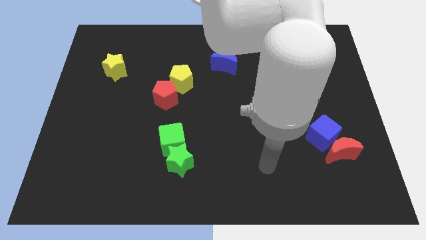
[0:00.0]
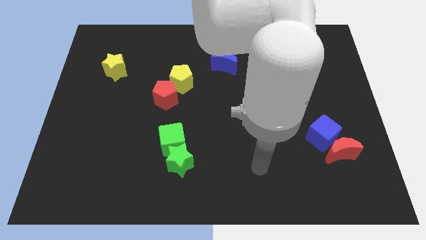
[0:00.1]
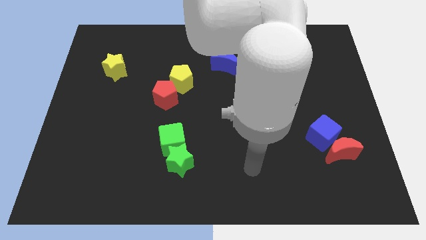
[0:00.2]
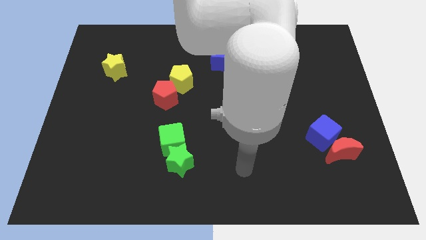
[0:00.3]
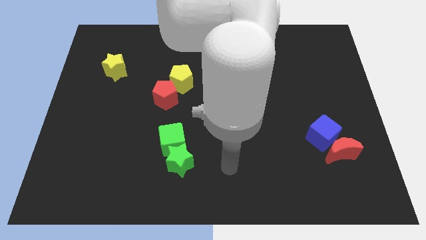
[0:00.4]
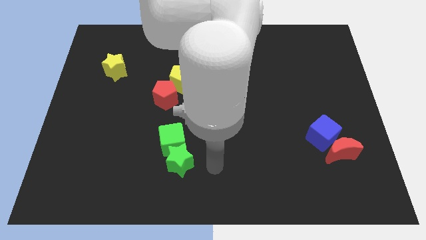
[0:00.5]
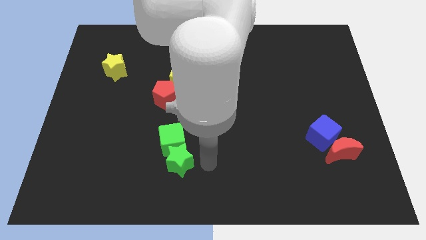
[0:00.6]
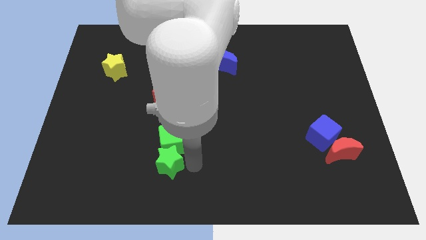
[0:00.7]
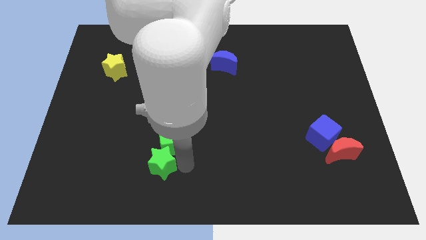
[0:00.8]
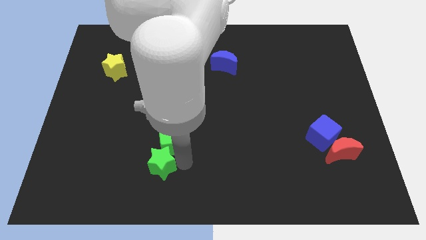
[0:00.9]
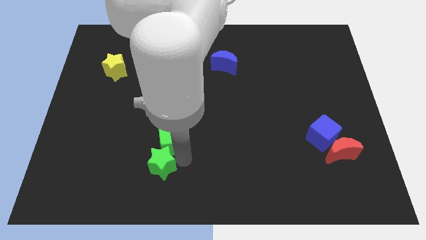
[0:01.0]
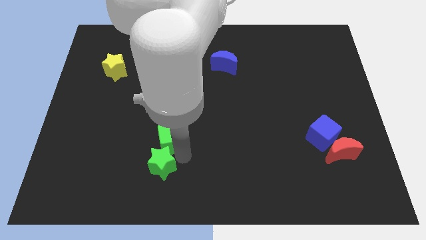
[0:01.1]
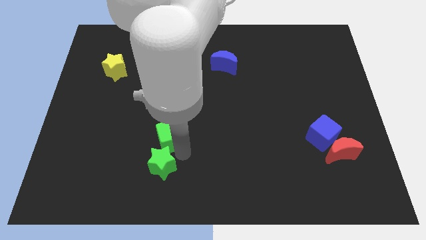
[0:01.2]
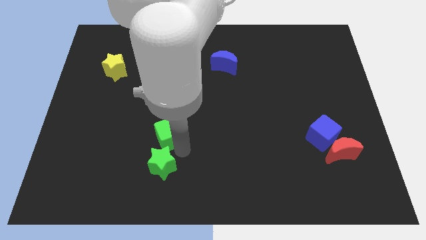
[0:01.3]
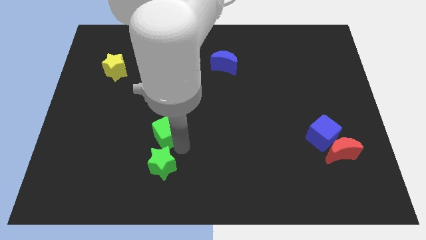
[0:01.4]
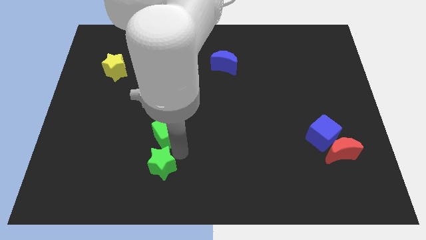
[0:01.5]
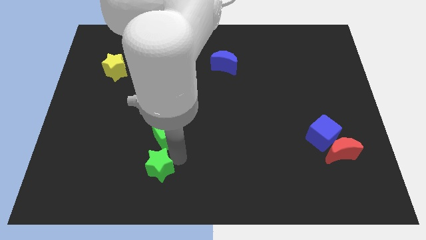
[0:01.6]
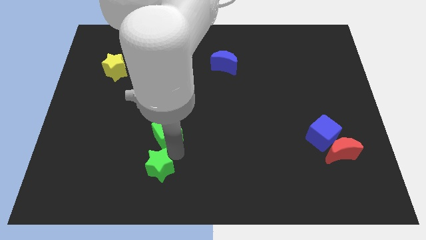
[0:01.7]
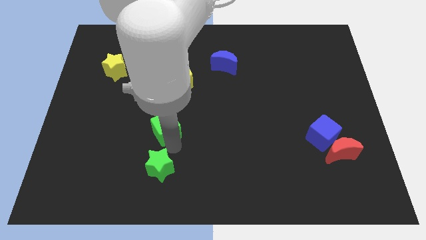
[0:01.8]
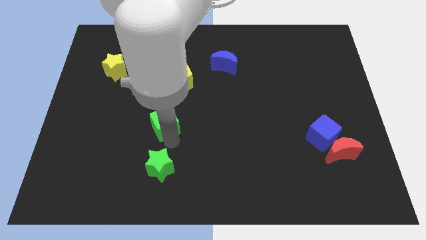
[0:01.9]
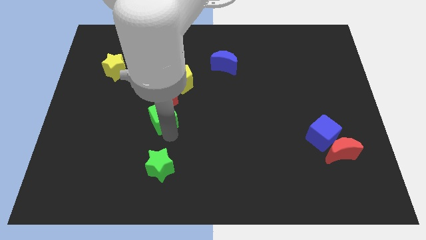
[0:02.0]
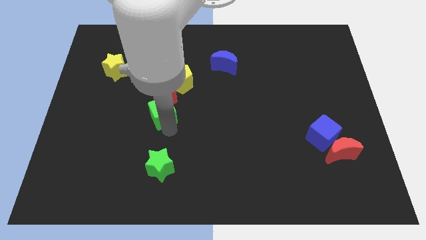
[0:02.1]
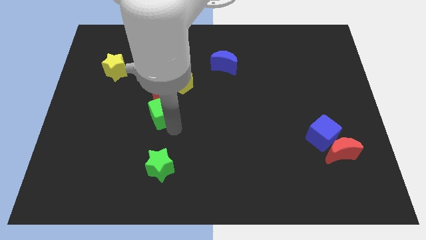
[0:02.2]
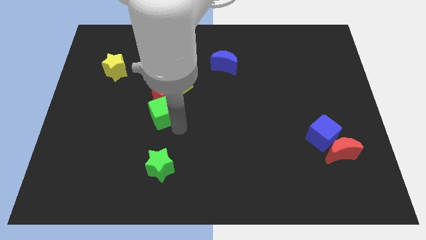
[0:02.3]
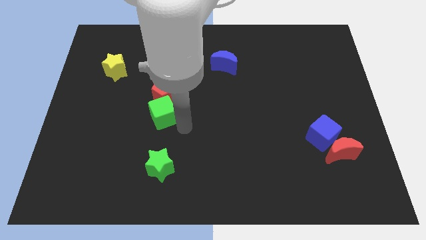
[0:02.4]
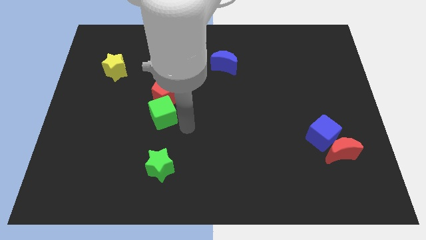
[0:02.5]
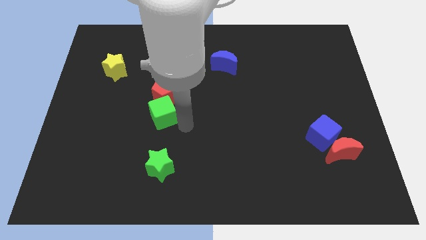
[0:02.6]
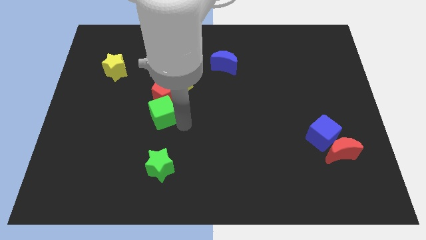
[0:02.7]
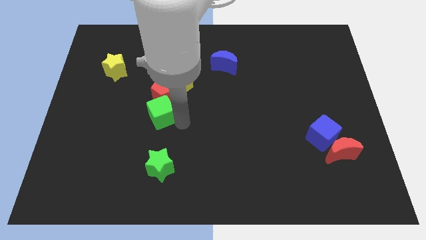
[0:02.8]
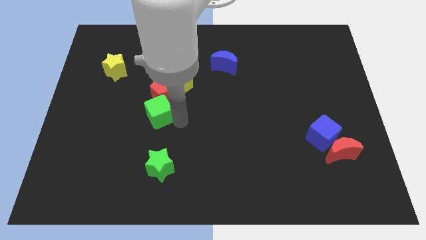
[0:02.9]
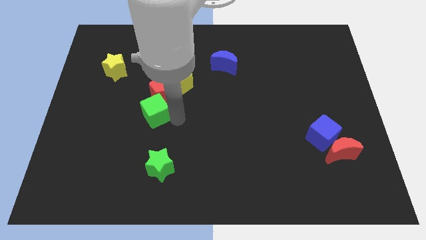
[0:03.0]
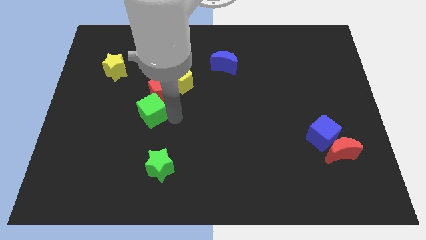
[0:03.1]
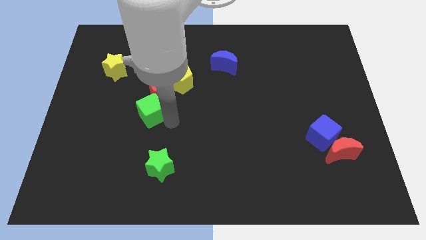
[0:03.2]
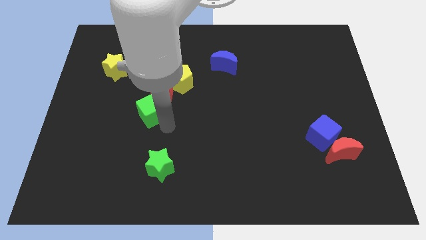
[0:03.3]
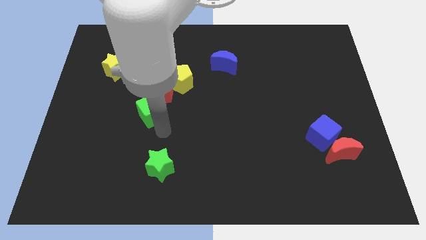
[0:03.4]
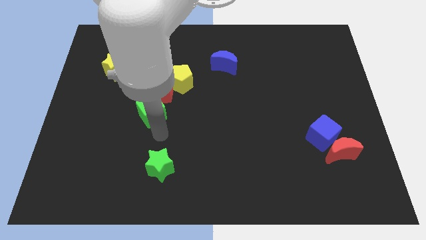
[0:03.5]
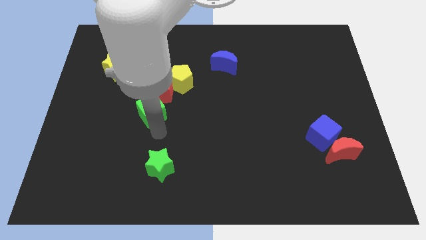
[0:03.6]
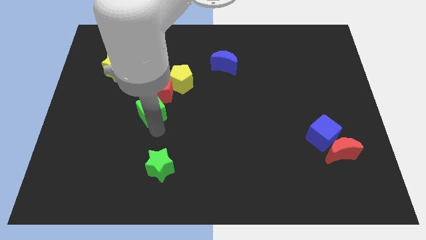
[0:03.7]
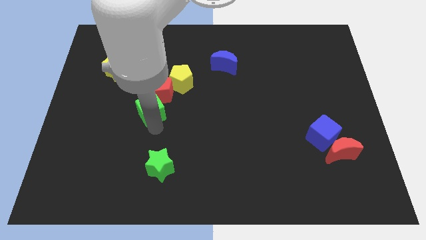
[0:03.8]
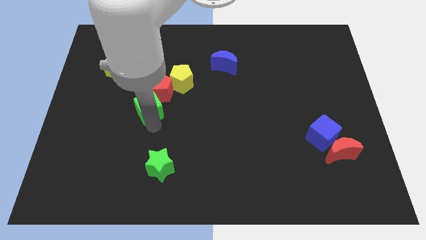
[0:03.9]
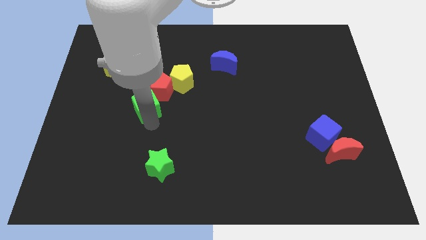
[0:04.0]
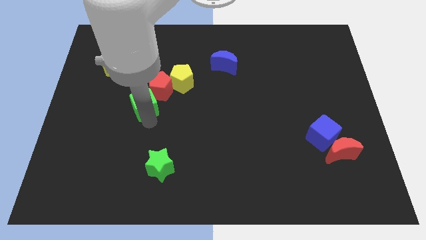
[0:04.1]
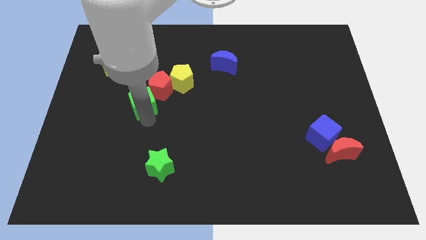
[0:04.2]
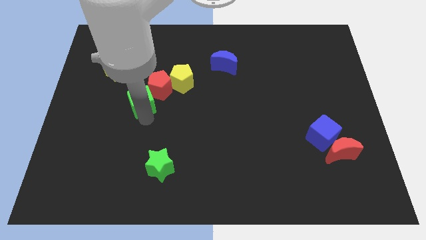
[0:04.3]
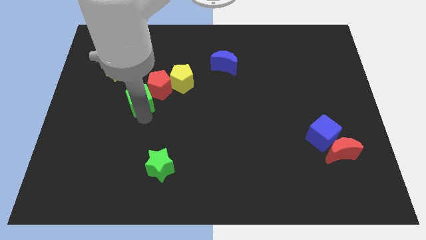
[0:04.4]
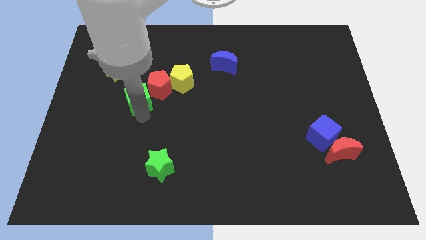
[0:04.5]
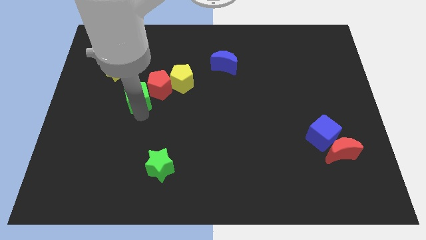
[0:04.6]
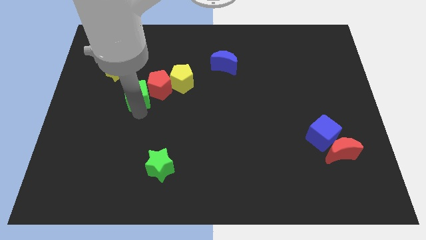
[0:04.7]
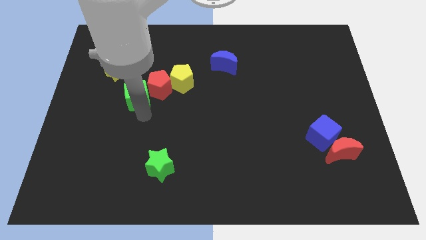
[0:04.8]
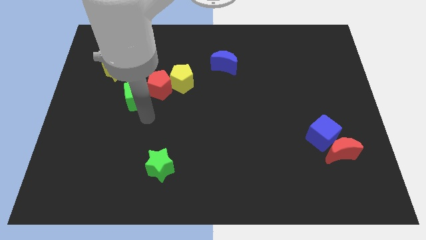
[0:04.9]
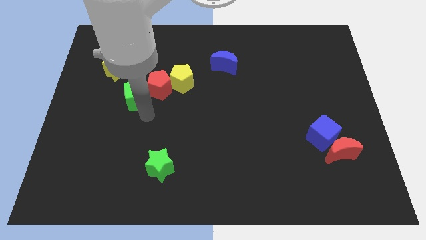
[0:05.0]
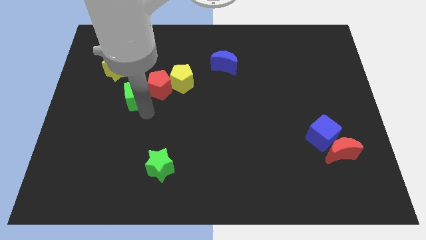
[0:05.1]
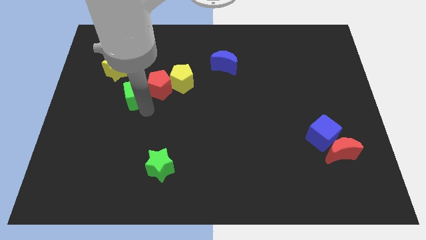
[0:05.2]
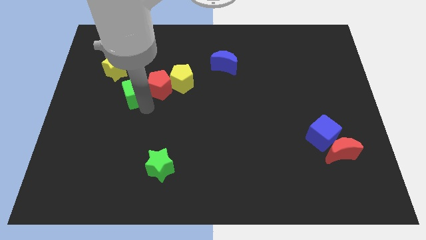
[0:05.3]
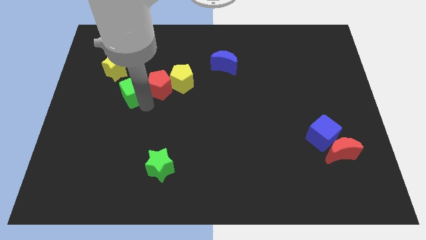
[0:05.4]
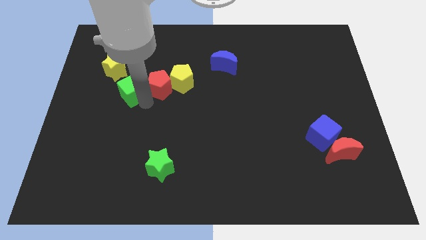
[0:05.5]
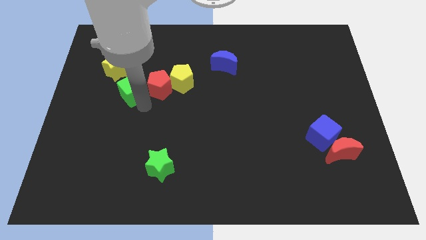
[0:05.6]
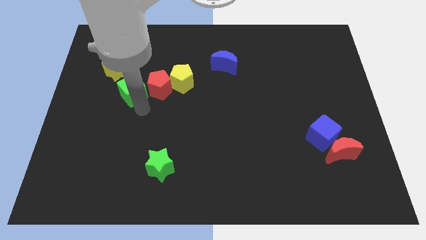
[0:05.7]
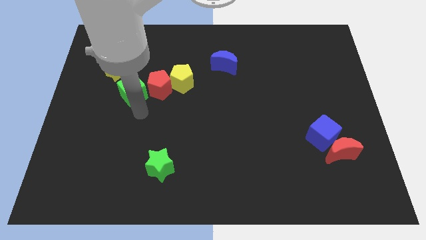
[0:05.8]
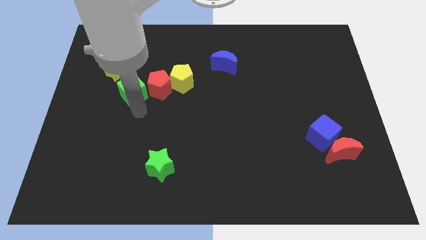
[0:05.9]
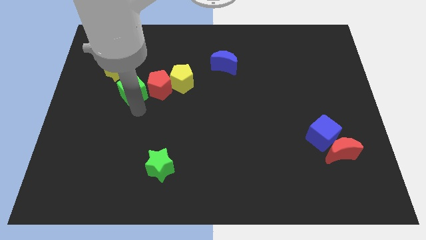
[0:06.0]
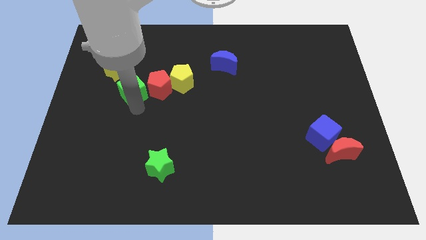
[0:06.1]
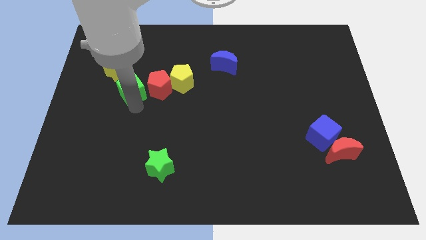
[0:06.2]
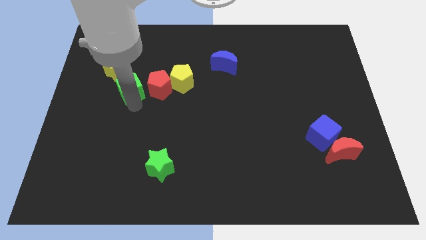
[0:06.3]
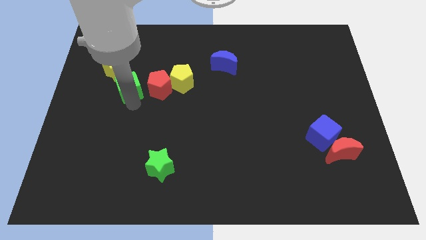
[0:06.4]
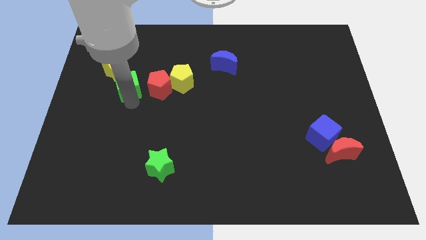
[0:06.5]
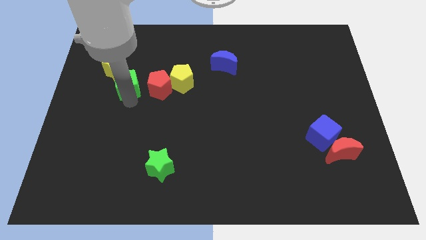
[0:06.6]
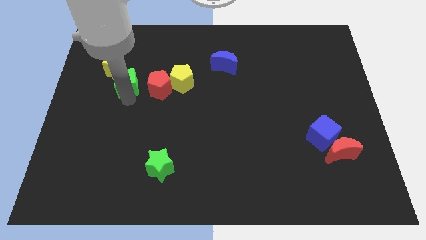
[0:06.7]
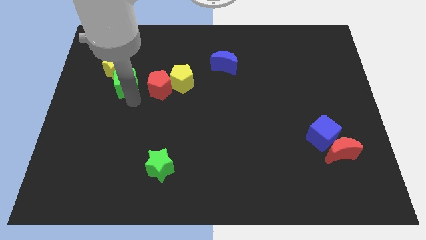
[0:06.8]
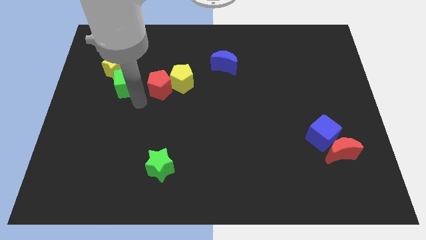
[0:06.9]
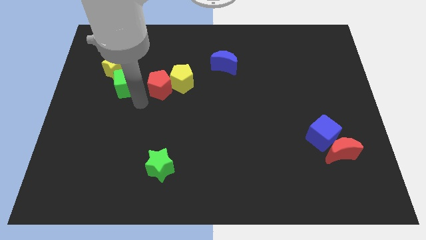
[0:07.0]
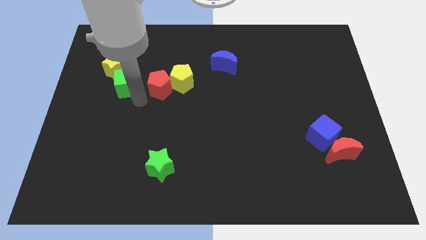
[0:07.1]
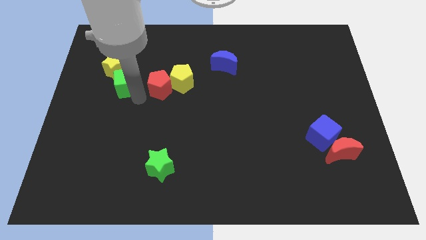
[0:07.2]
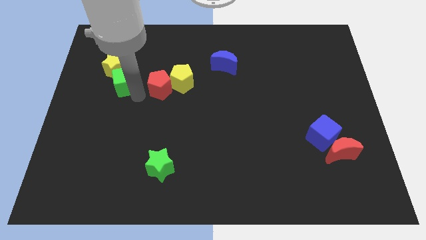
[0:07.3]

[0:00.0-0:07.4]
put the green cube close to the yellow star
